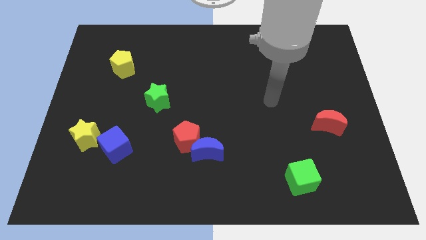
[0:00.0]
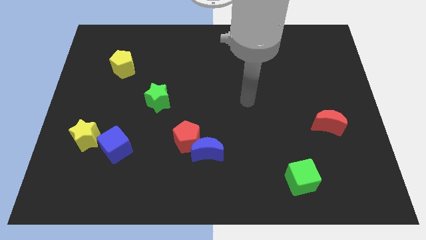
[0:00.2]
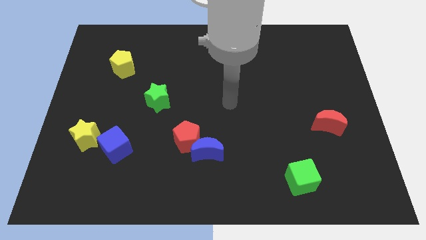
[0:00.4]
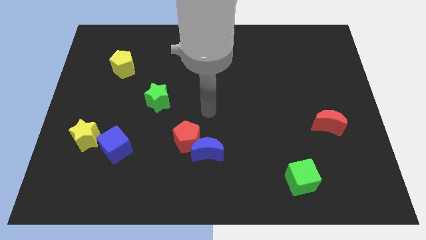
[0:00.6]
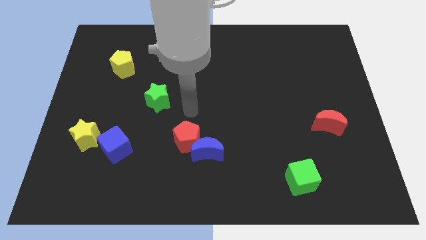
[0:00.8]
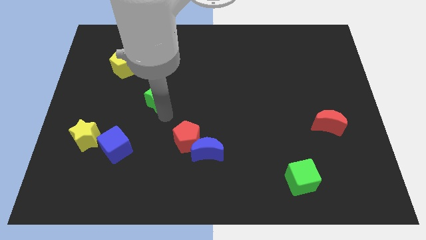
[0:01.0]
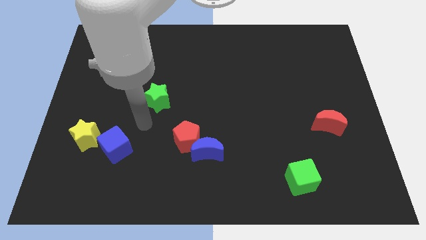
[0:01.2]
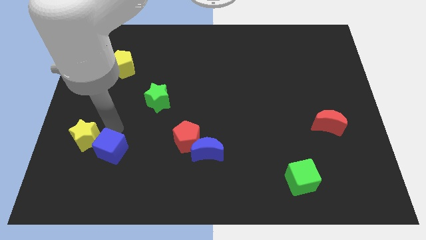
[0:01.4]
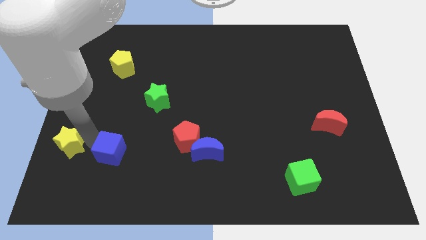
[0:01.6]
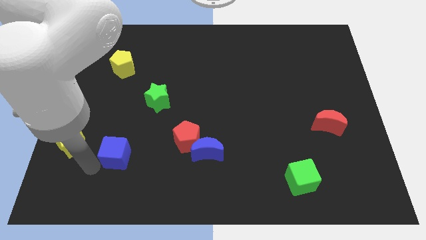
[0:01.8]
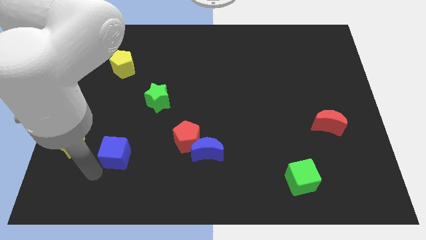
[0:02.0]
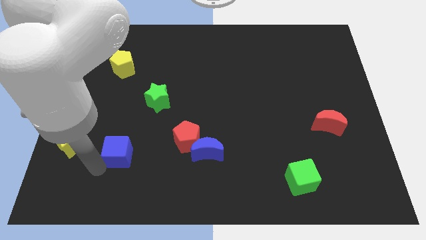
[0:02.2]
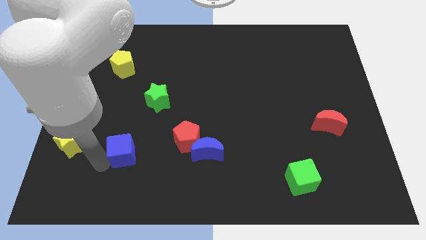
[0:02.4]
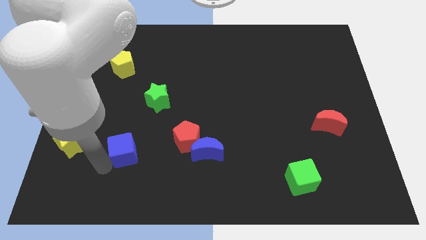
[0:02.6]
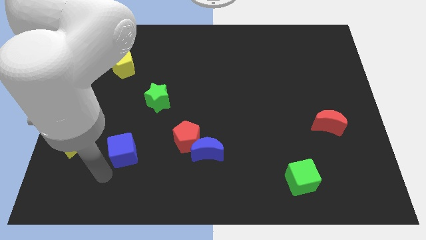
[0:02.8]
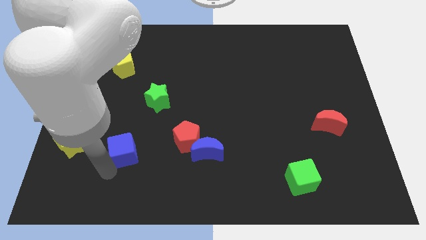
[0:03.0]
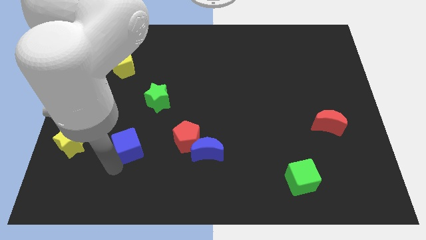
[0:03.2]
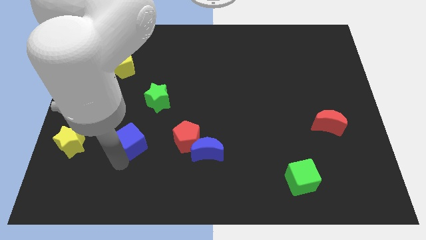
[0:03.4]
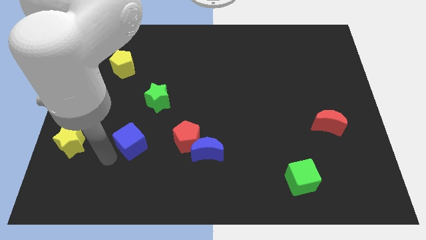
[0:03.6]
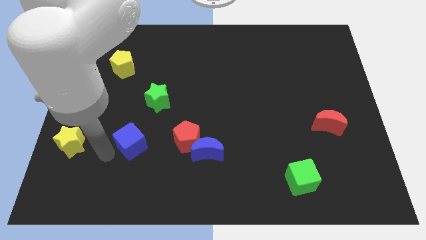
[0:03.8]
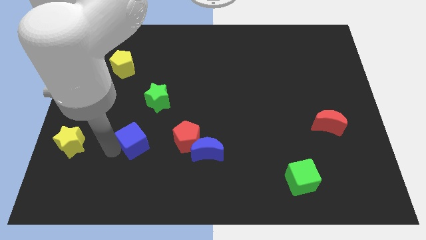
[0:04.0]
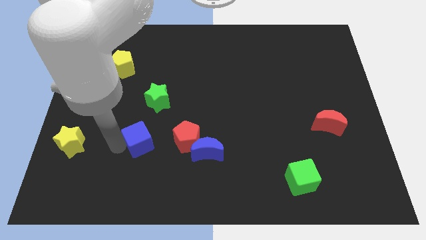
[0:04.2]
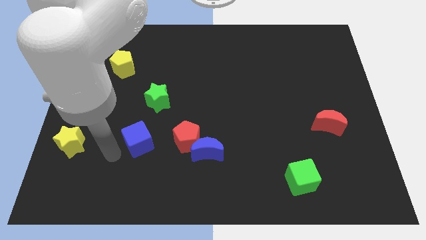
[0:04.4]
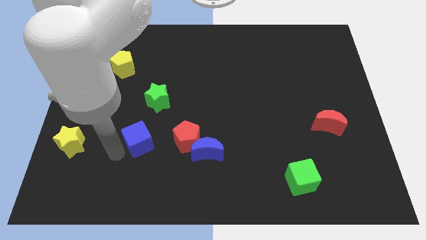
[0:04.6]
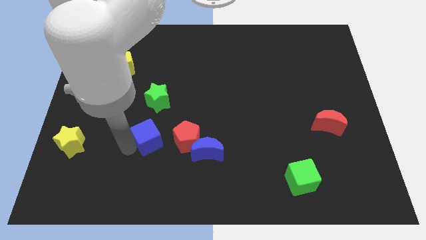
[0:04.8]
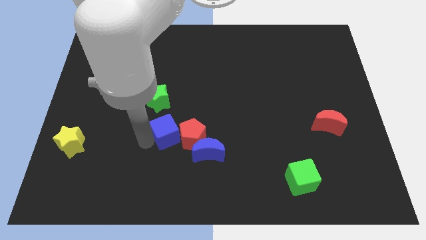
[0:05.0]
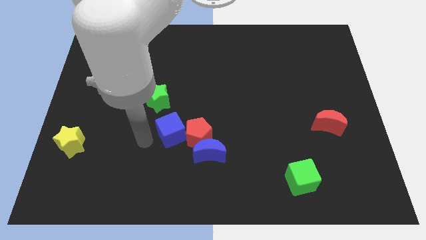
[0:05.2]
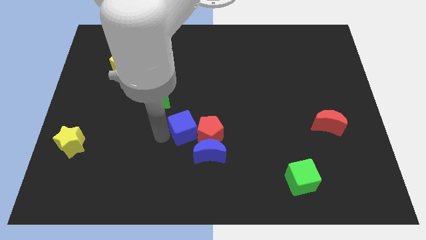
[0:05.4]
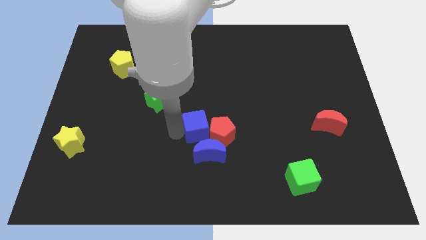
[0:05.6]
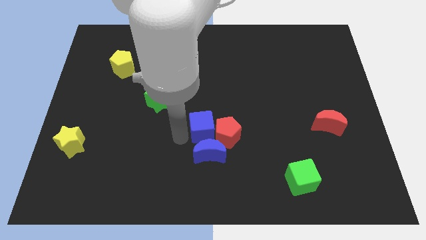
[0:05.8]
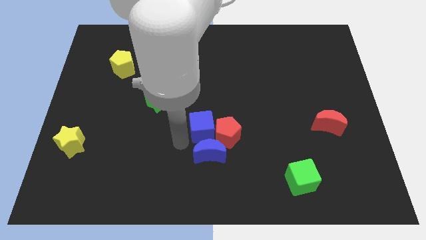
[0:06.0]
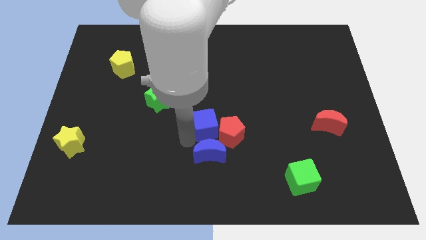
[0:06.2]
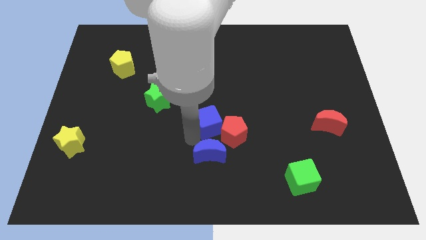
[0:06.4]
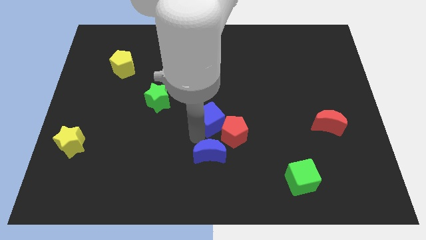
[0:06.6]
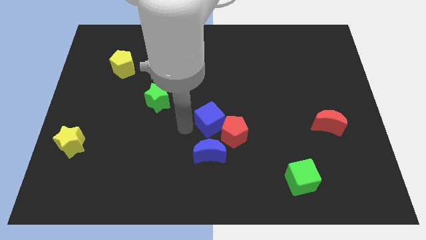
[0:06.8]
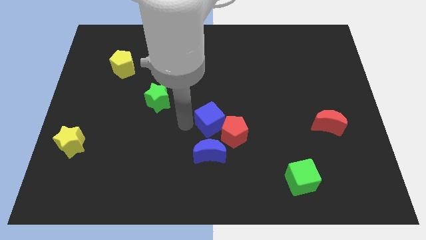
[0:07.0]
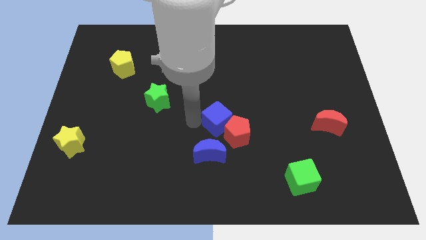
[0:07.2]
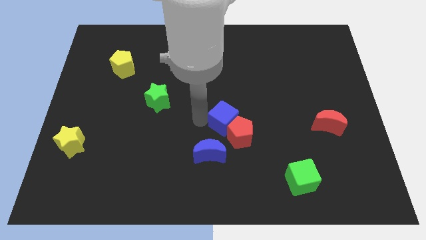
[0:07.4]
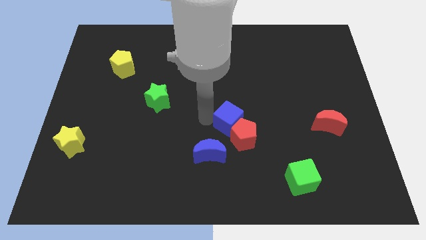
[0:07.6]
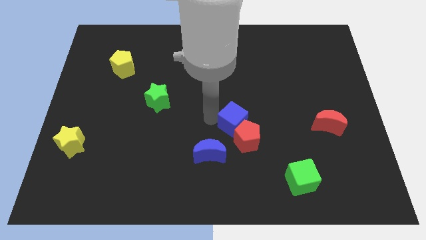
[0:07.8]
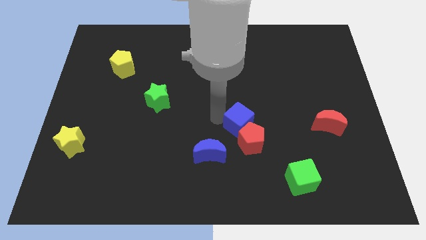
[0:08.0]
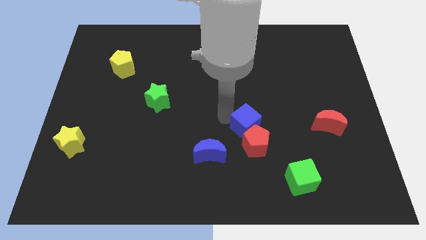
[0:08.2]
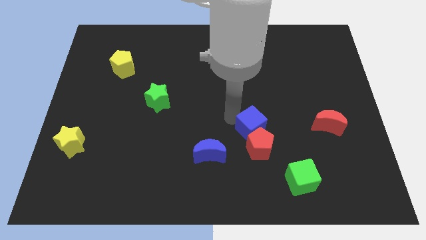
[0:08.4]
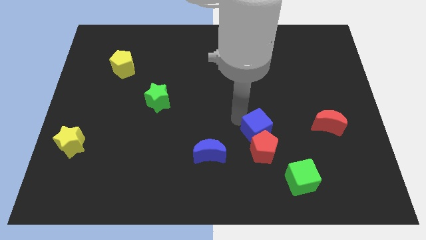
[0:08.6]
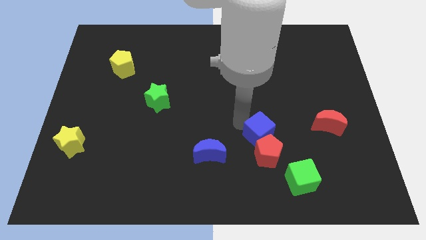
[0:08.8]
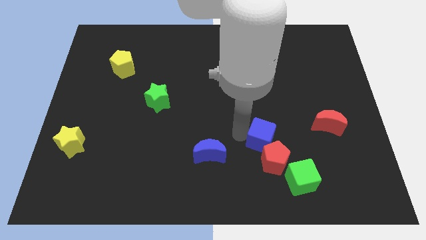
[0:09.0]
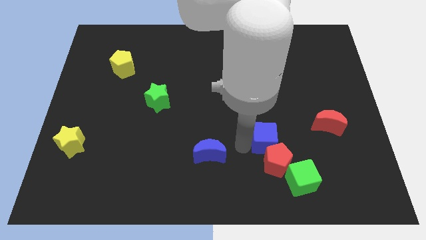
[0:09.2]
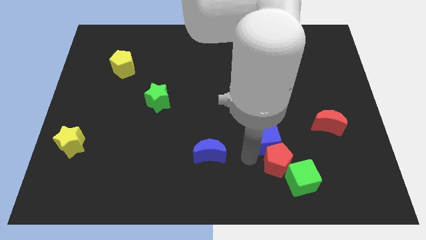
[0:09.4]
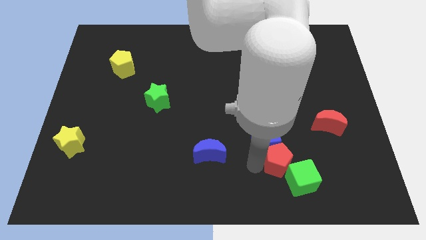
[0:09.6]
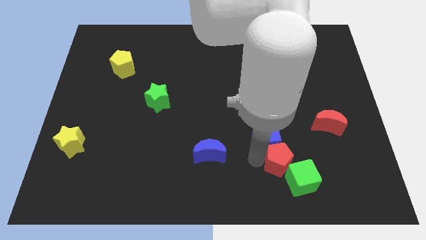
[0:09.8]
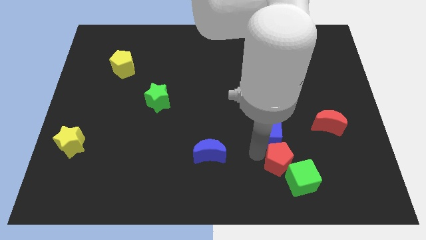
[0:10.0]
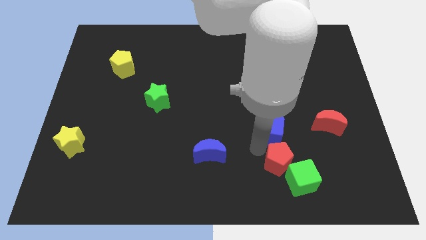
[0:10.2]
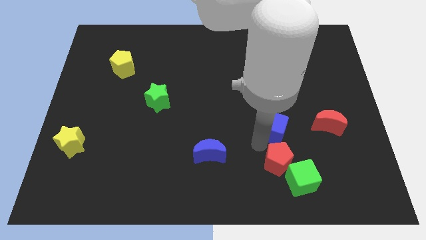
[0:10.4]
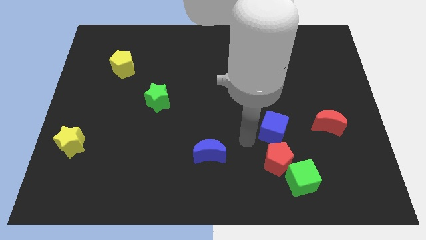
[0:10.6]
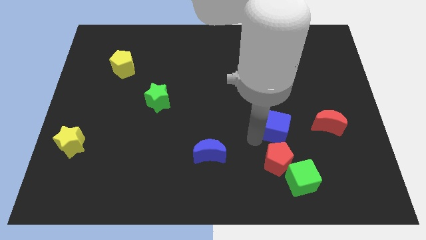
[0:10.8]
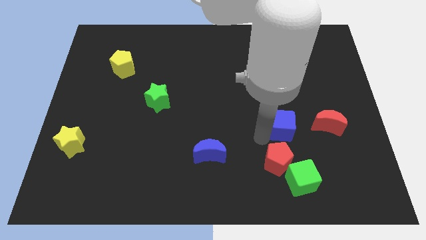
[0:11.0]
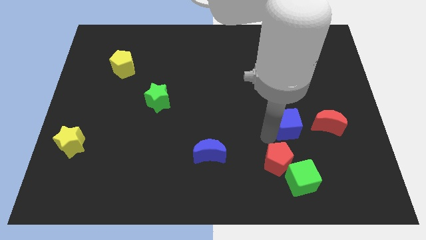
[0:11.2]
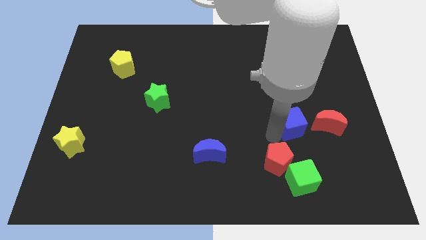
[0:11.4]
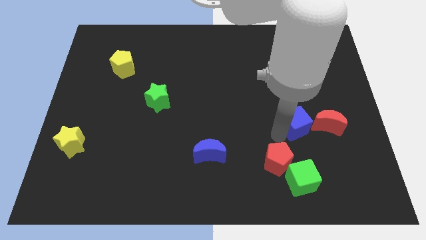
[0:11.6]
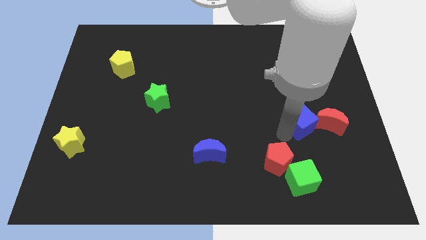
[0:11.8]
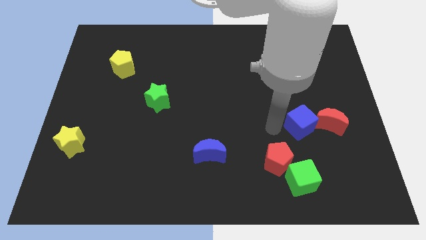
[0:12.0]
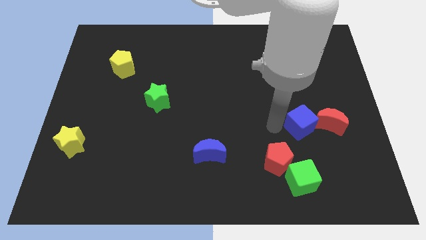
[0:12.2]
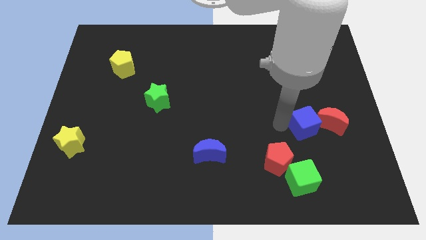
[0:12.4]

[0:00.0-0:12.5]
move the blue cube to the red moon
